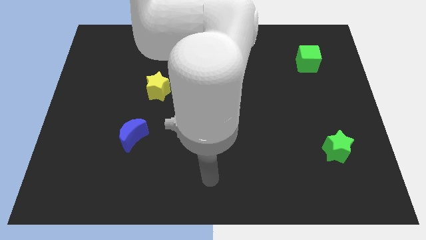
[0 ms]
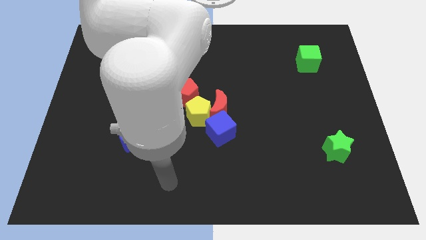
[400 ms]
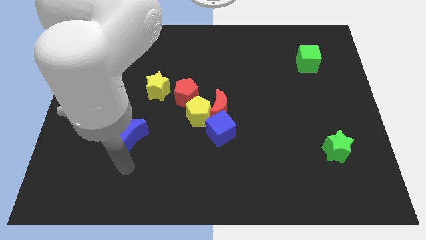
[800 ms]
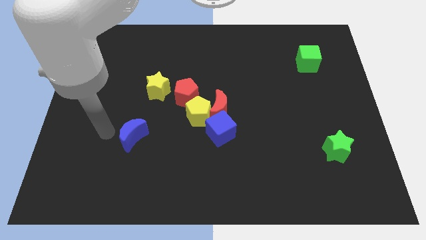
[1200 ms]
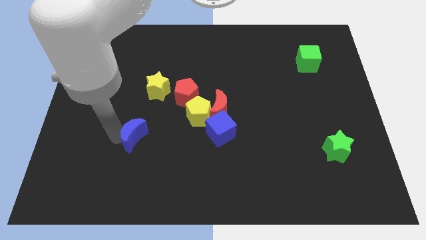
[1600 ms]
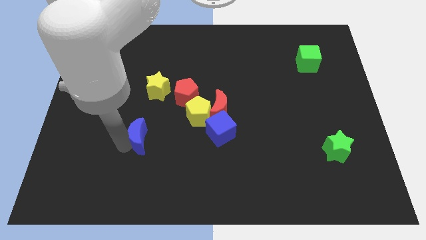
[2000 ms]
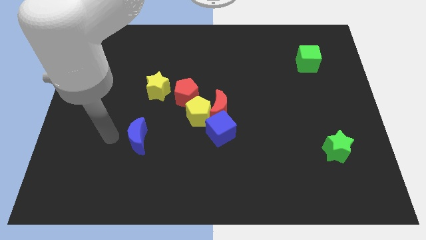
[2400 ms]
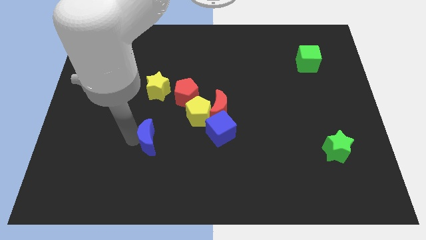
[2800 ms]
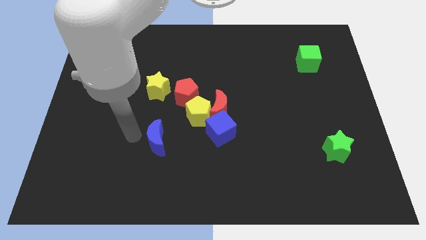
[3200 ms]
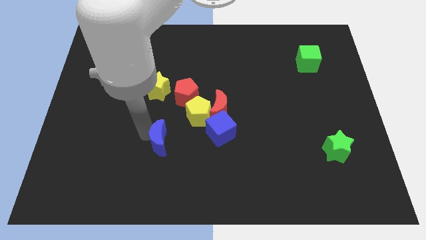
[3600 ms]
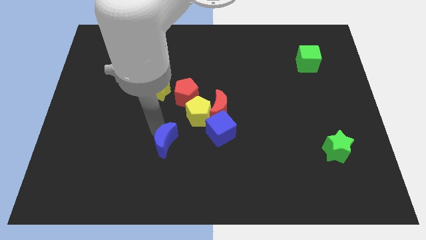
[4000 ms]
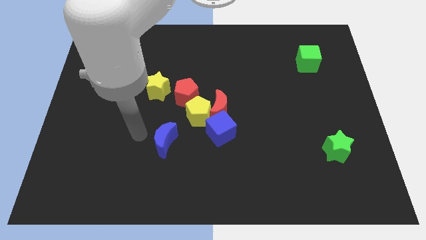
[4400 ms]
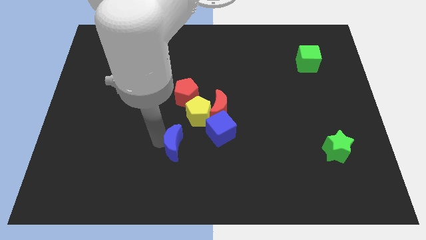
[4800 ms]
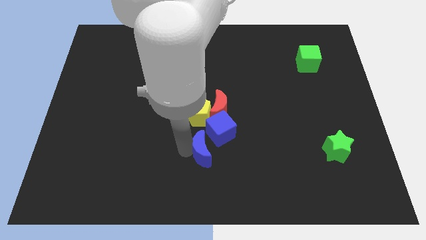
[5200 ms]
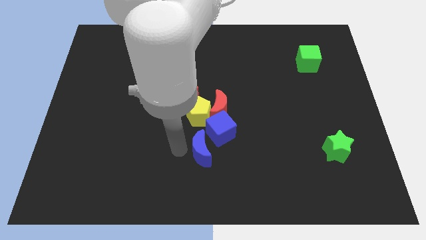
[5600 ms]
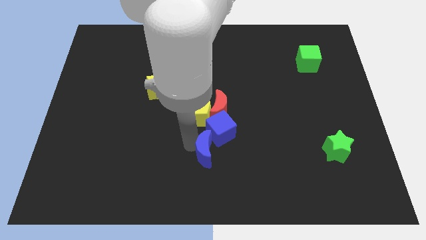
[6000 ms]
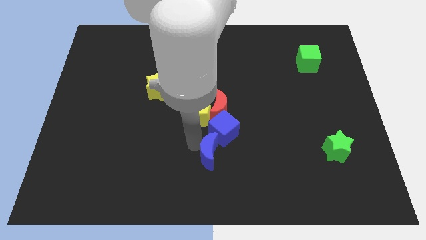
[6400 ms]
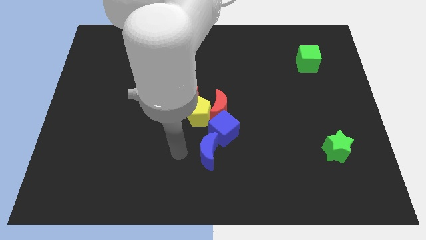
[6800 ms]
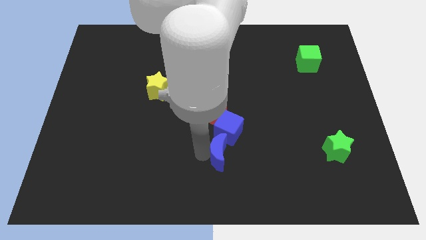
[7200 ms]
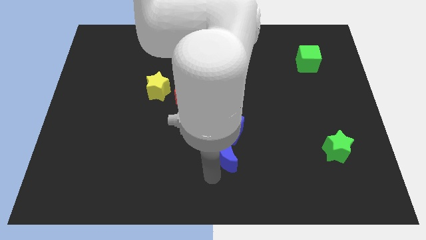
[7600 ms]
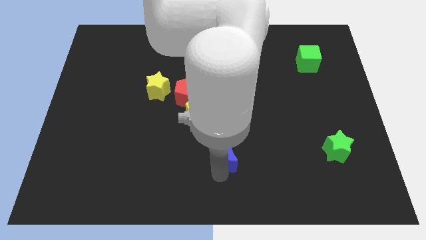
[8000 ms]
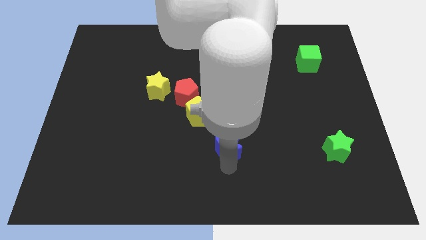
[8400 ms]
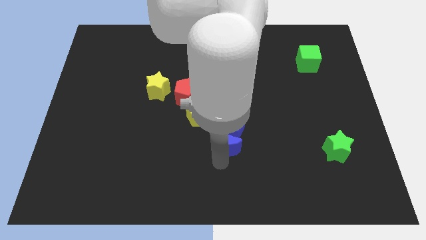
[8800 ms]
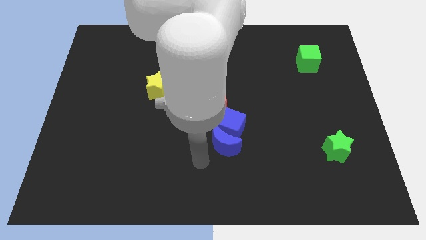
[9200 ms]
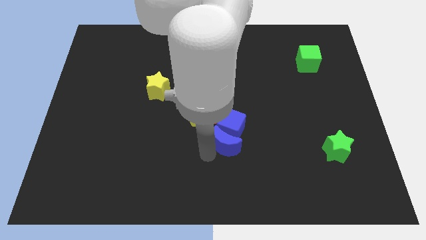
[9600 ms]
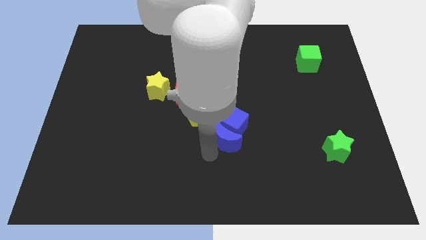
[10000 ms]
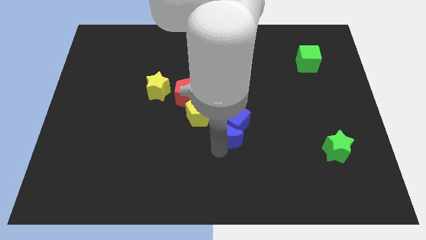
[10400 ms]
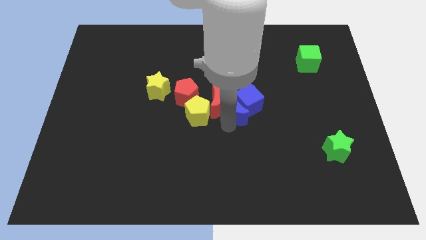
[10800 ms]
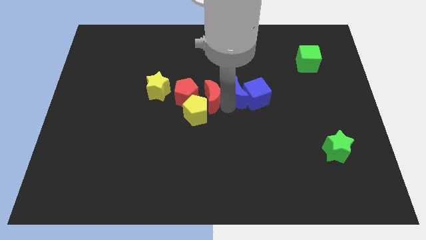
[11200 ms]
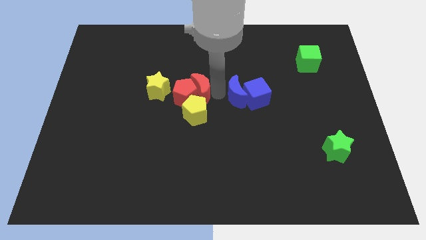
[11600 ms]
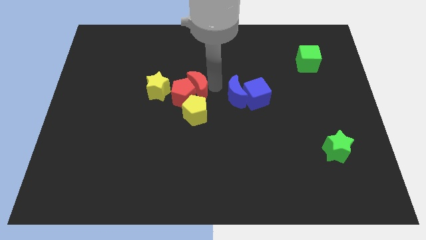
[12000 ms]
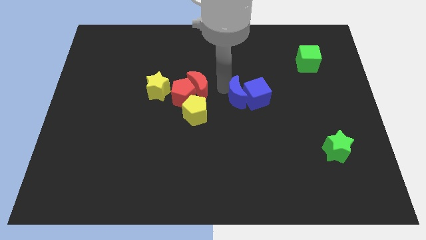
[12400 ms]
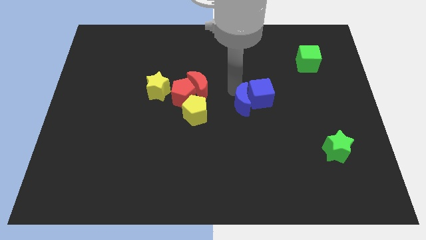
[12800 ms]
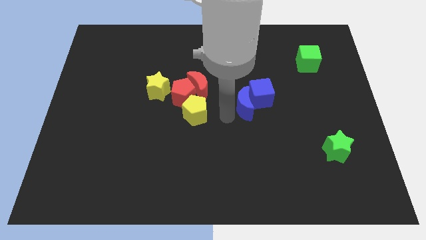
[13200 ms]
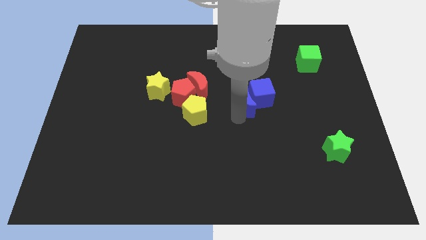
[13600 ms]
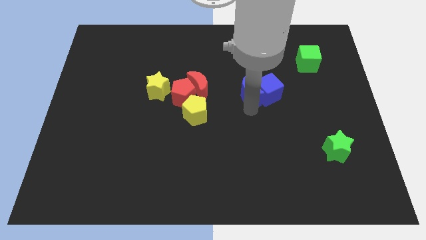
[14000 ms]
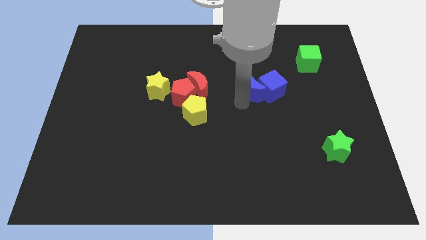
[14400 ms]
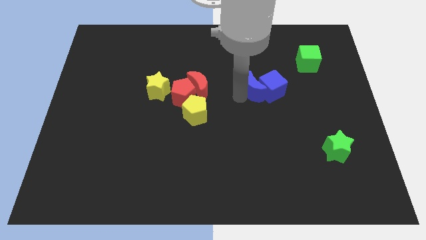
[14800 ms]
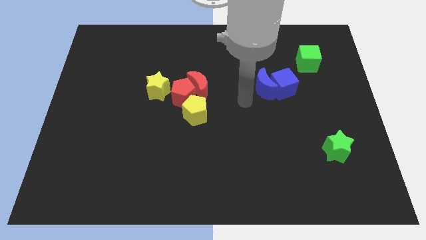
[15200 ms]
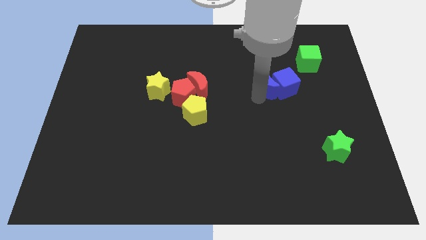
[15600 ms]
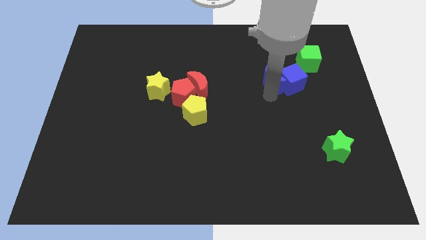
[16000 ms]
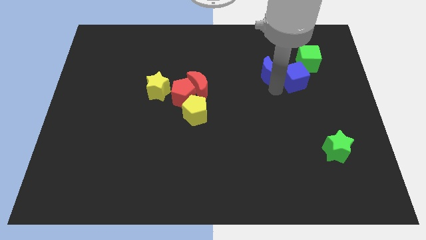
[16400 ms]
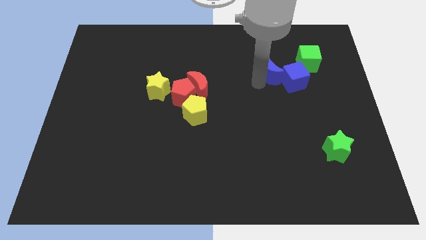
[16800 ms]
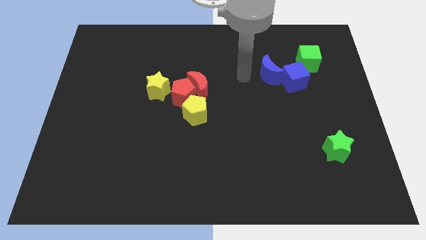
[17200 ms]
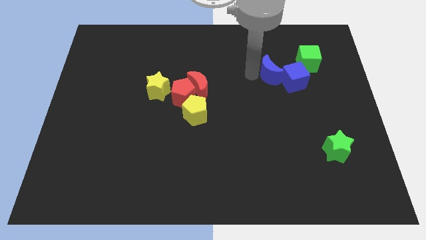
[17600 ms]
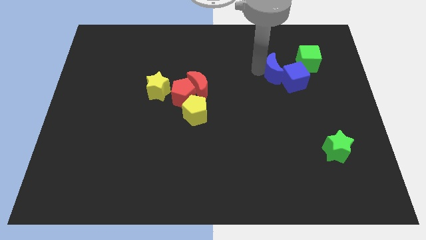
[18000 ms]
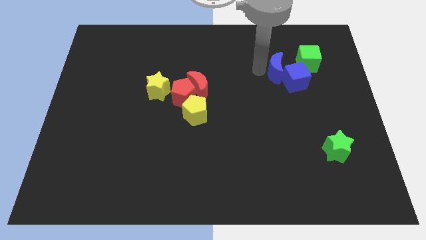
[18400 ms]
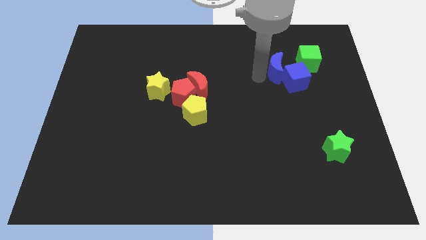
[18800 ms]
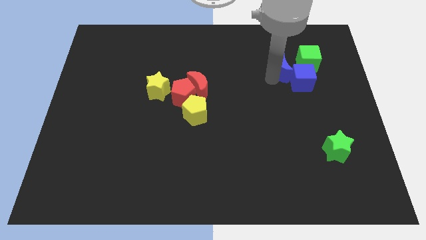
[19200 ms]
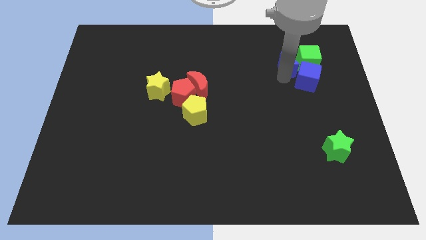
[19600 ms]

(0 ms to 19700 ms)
push the blue moon towards the green cube

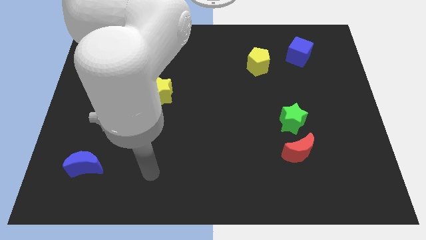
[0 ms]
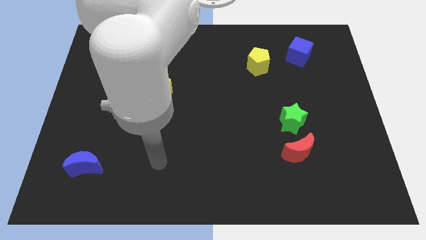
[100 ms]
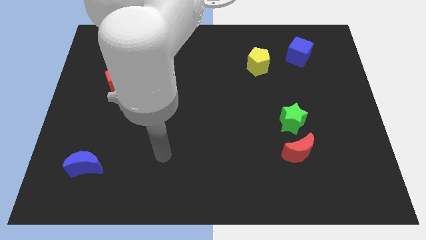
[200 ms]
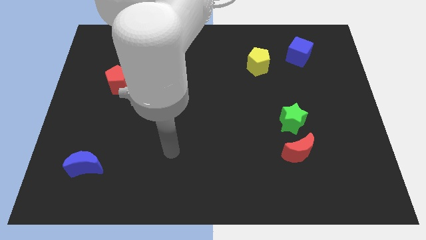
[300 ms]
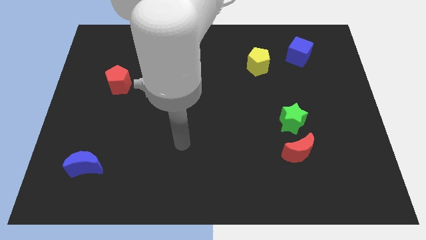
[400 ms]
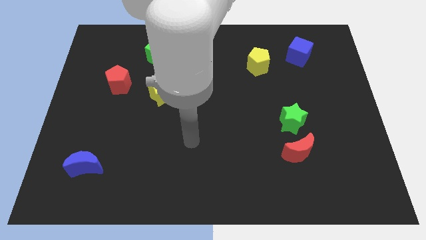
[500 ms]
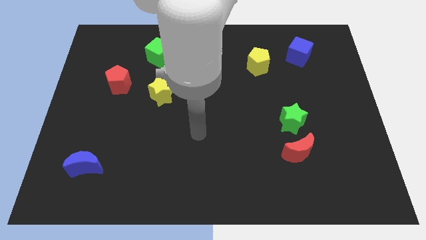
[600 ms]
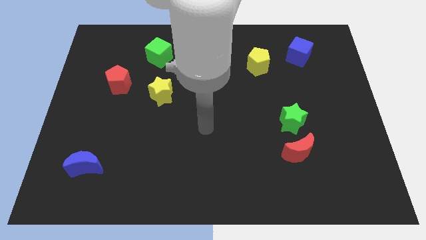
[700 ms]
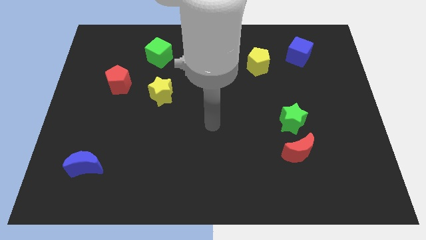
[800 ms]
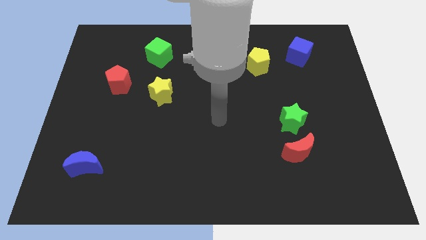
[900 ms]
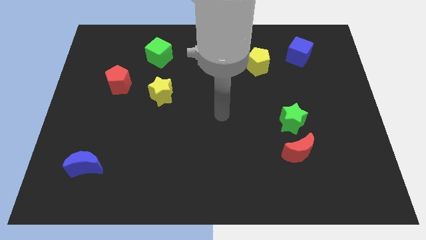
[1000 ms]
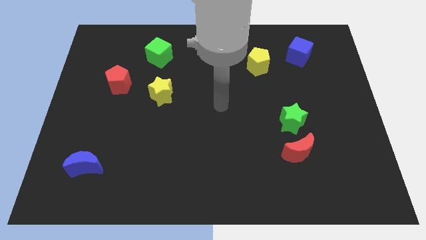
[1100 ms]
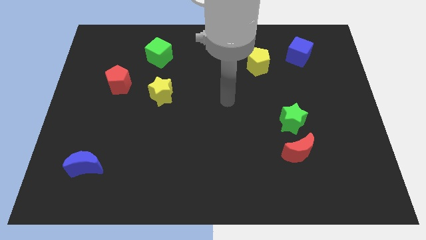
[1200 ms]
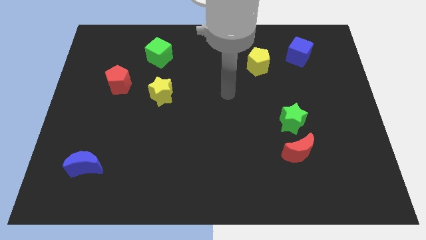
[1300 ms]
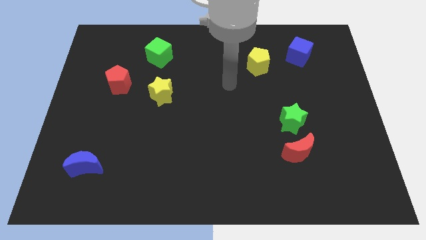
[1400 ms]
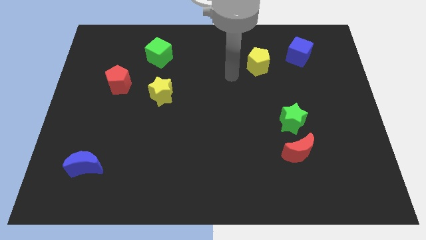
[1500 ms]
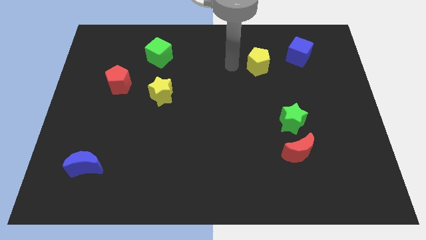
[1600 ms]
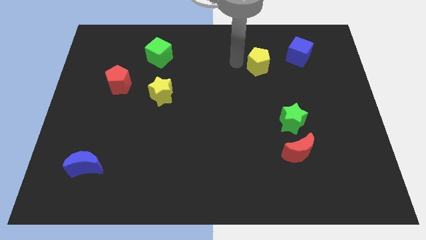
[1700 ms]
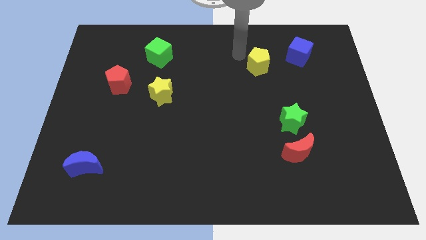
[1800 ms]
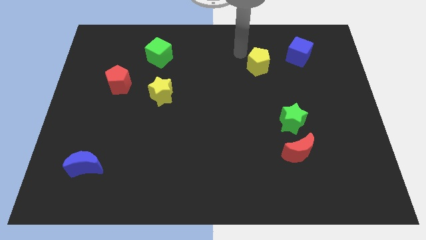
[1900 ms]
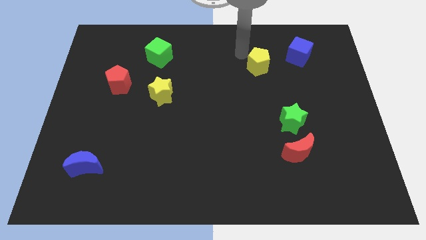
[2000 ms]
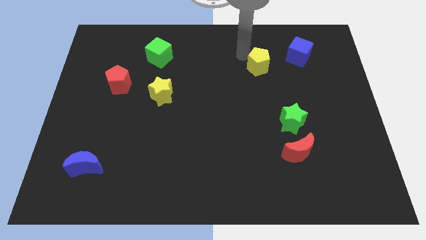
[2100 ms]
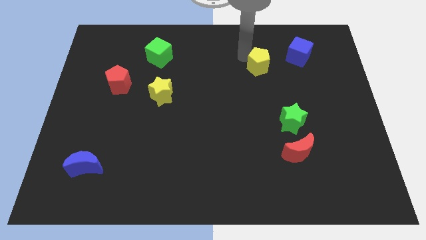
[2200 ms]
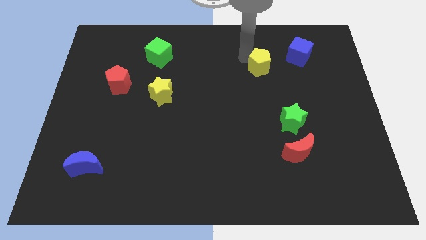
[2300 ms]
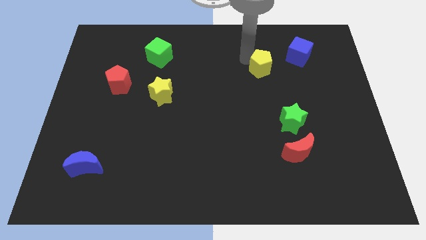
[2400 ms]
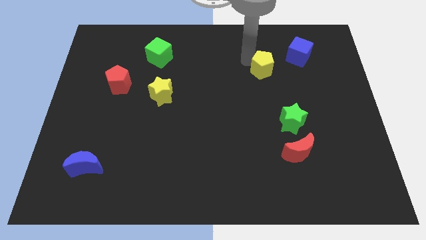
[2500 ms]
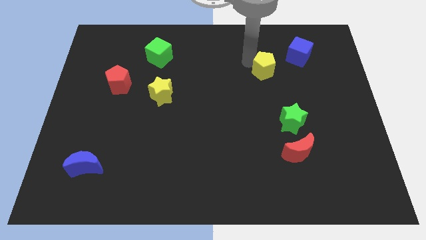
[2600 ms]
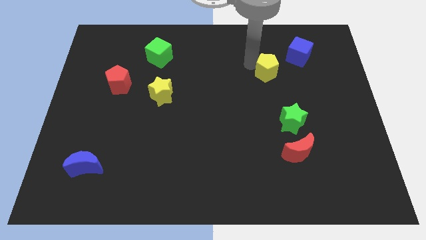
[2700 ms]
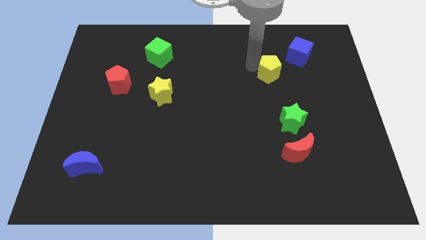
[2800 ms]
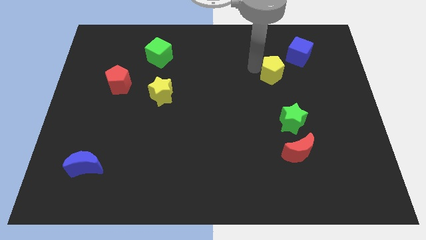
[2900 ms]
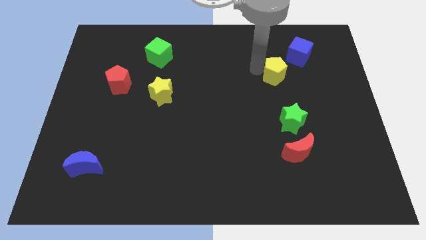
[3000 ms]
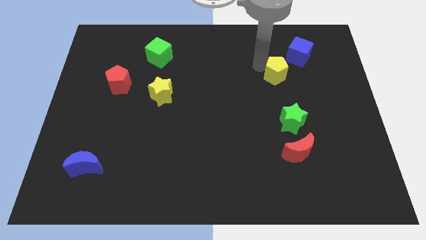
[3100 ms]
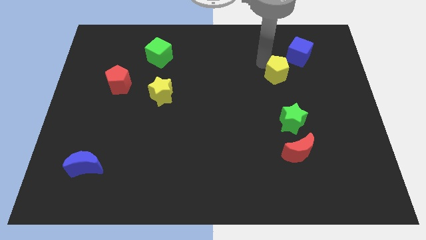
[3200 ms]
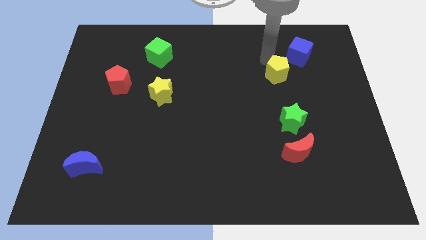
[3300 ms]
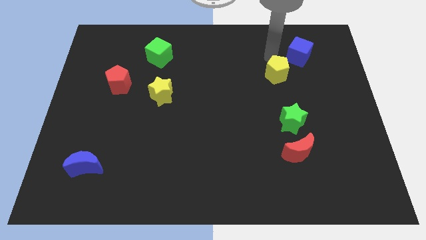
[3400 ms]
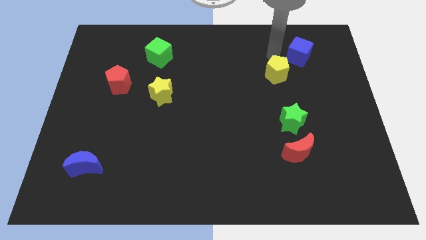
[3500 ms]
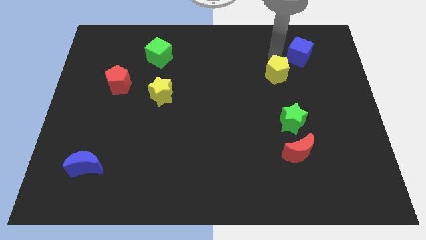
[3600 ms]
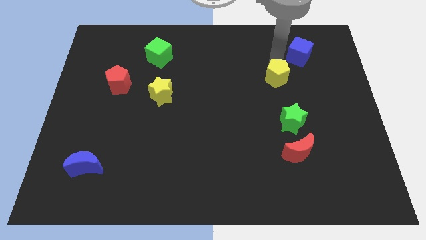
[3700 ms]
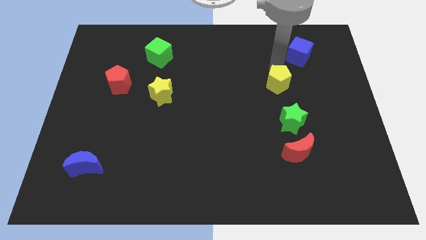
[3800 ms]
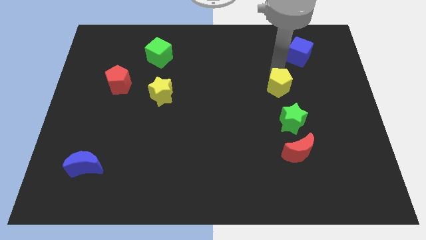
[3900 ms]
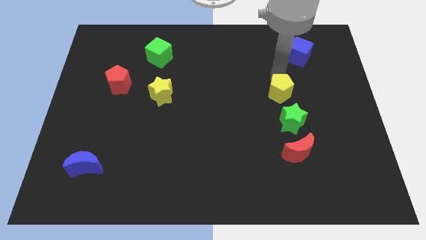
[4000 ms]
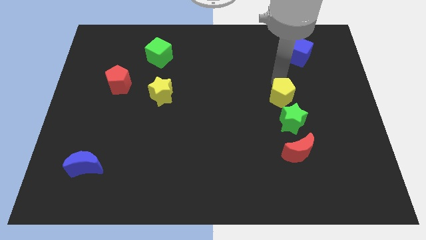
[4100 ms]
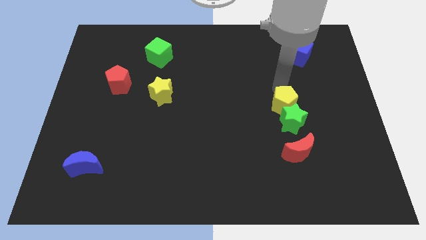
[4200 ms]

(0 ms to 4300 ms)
put the yellow pentagon towards the green star
